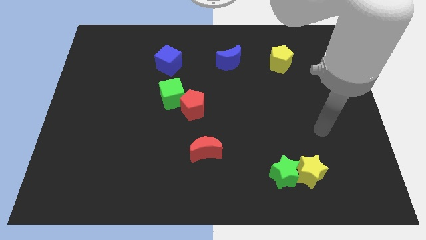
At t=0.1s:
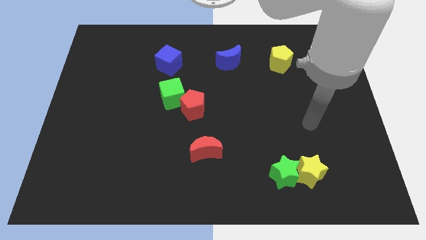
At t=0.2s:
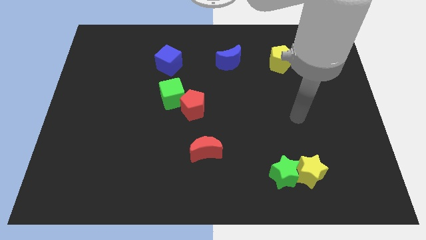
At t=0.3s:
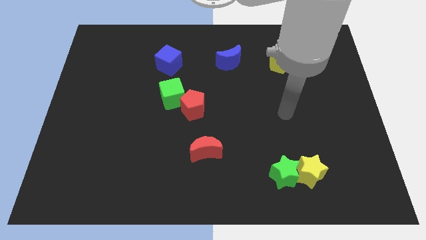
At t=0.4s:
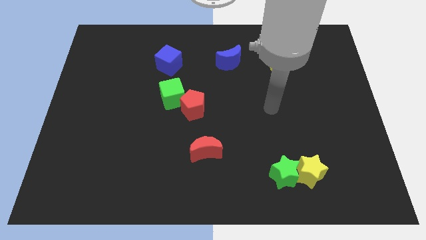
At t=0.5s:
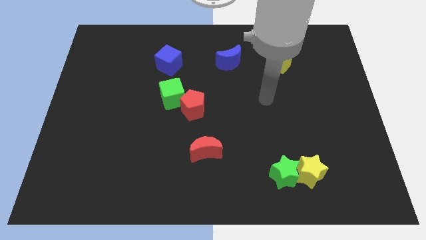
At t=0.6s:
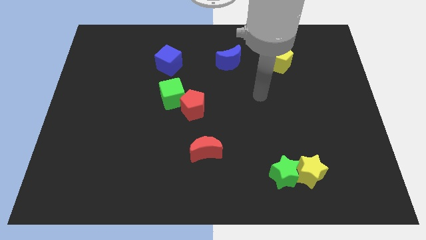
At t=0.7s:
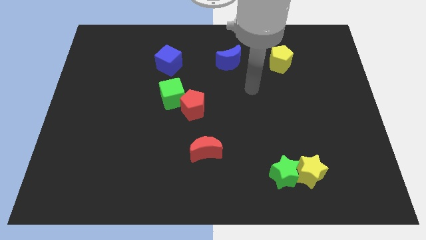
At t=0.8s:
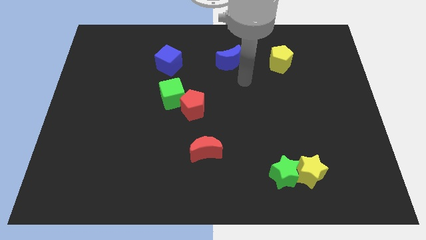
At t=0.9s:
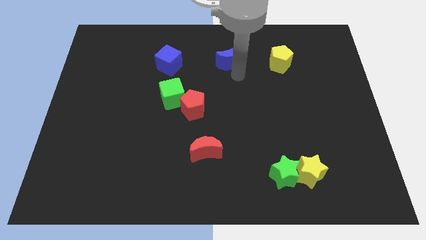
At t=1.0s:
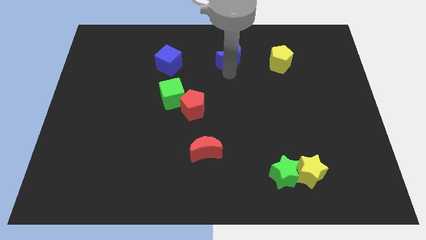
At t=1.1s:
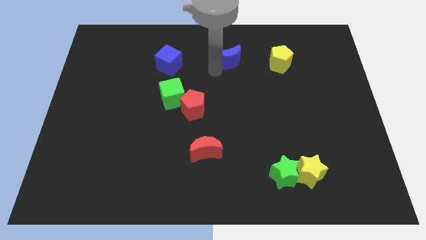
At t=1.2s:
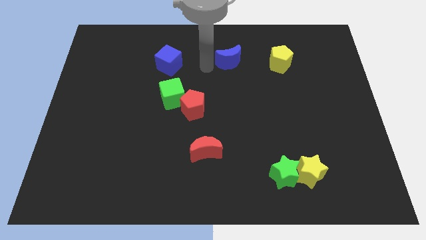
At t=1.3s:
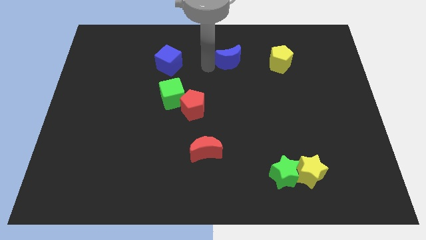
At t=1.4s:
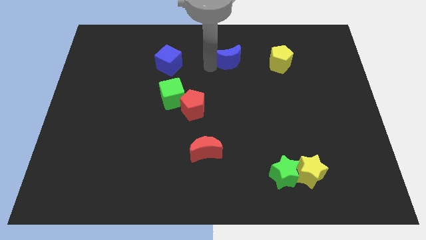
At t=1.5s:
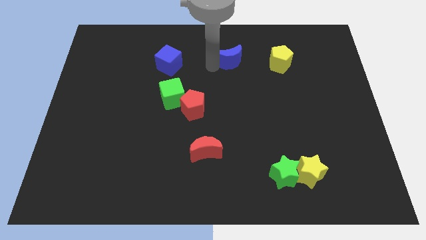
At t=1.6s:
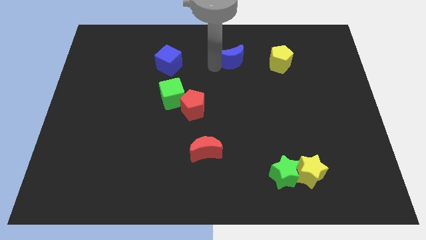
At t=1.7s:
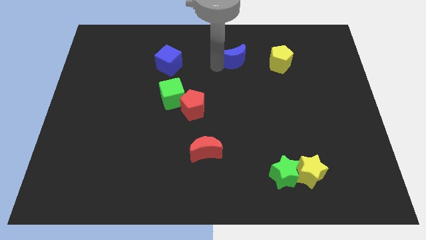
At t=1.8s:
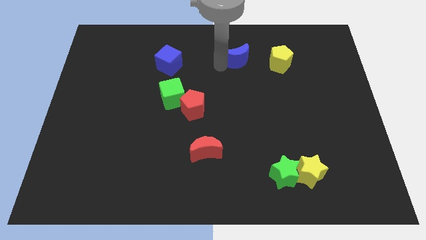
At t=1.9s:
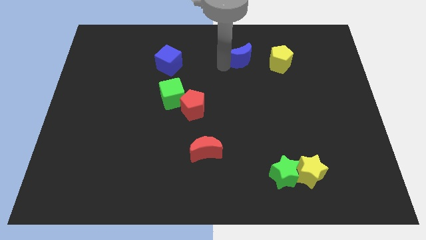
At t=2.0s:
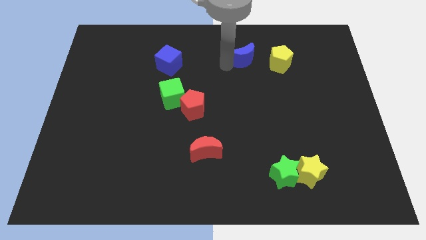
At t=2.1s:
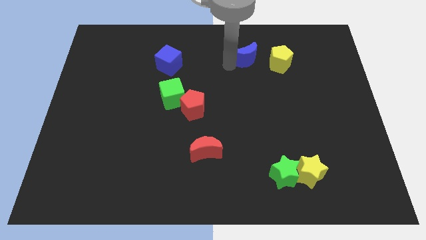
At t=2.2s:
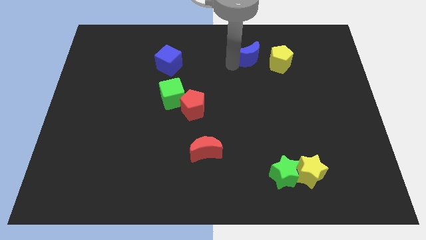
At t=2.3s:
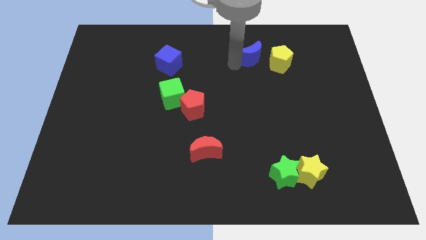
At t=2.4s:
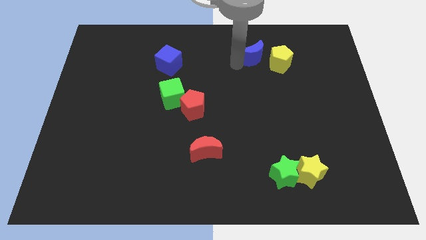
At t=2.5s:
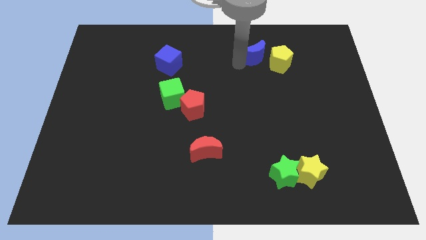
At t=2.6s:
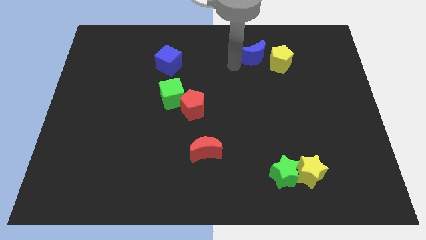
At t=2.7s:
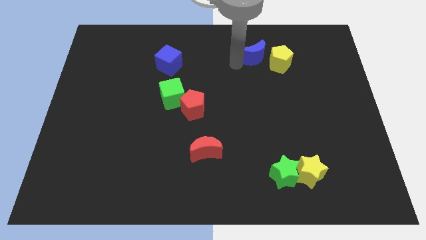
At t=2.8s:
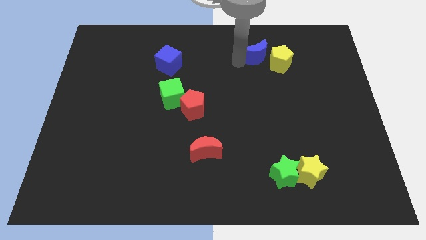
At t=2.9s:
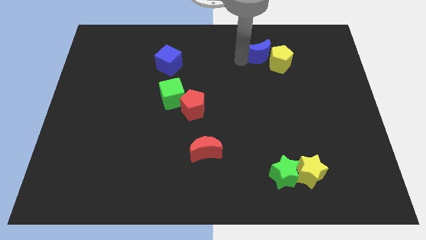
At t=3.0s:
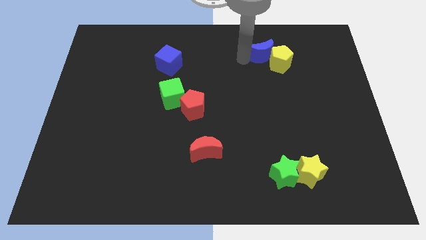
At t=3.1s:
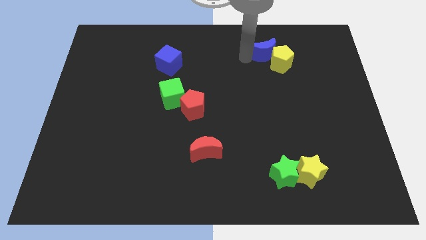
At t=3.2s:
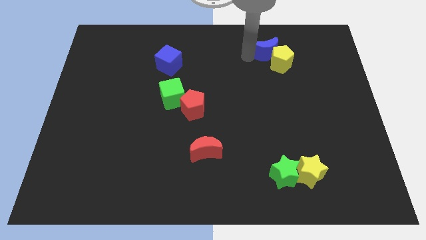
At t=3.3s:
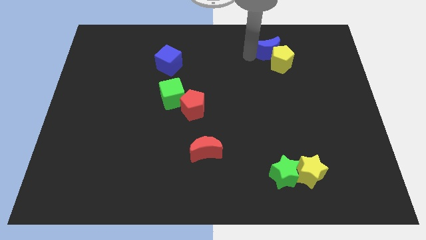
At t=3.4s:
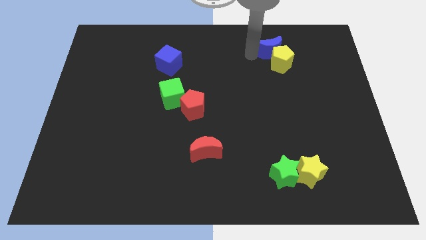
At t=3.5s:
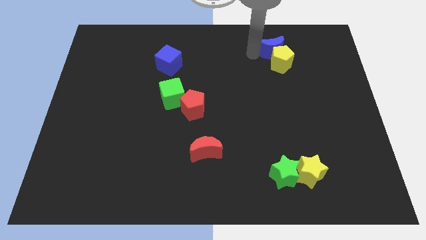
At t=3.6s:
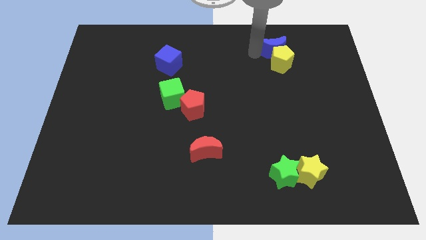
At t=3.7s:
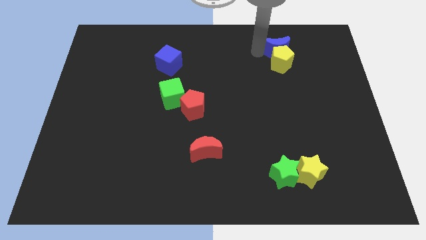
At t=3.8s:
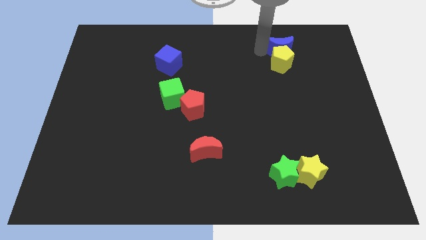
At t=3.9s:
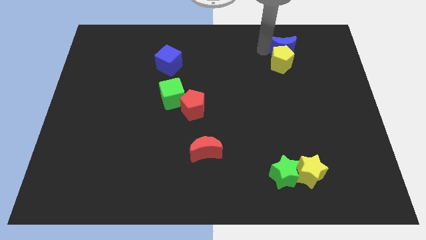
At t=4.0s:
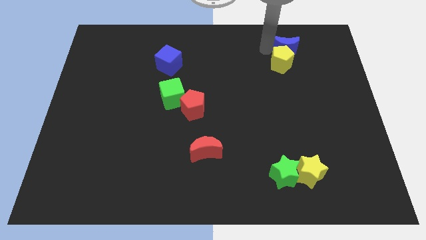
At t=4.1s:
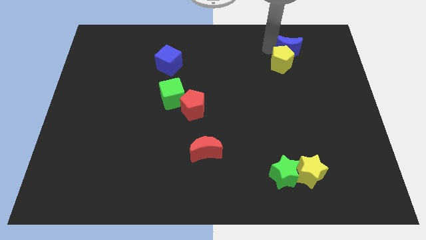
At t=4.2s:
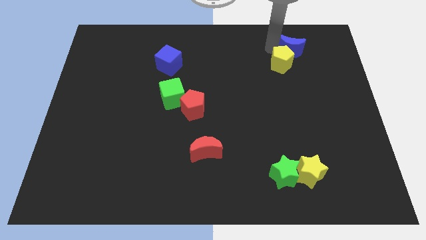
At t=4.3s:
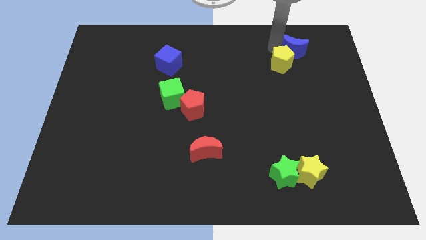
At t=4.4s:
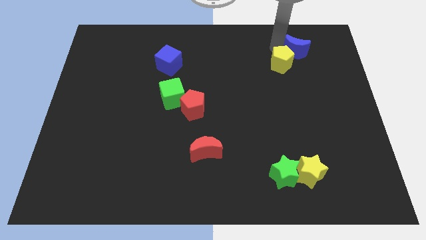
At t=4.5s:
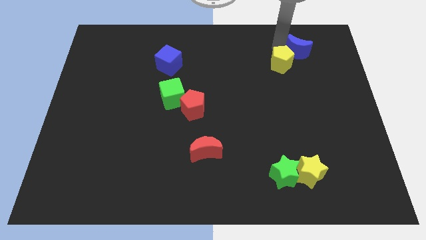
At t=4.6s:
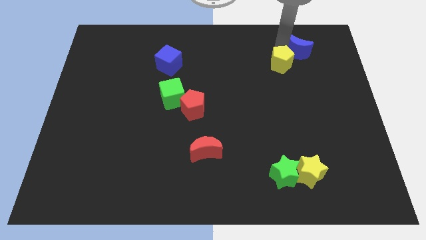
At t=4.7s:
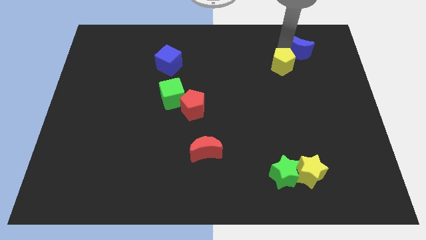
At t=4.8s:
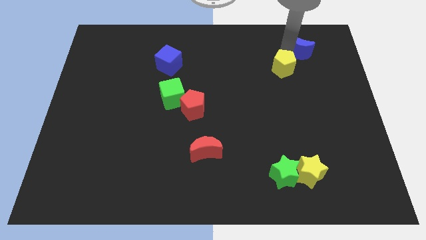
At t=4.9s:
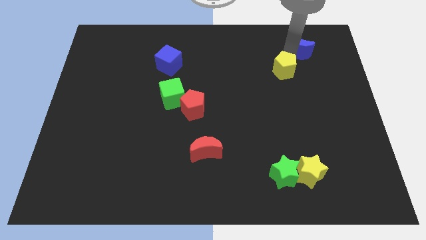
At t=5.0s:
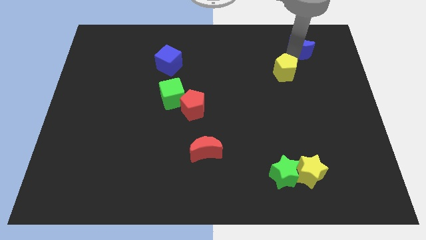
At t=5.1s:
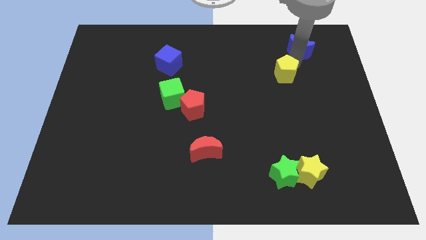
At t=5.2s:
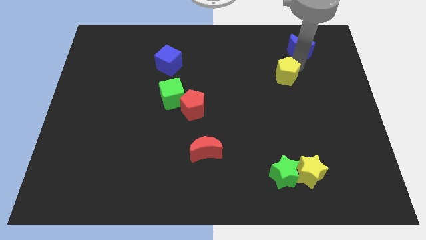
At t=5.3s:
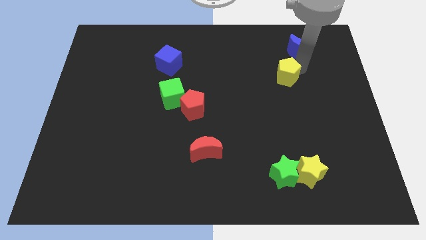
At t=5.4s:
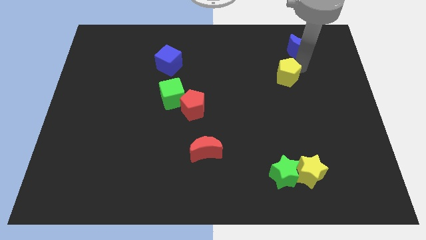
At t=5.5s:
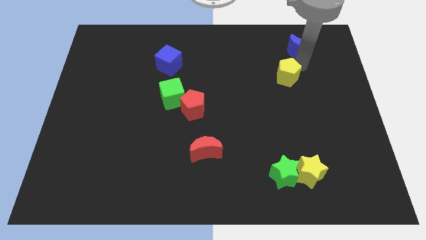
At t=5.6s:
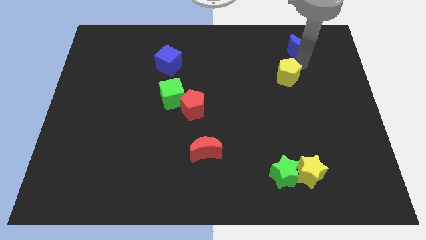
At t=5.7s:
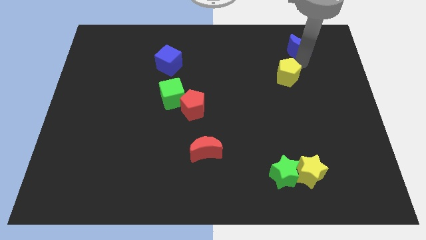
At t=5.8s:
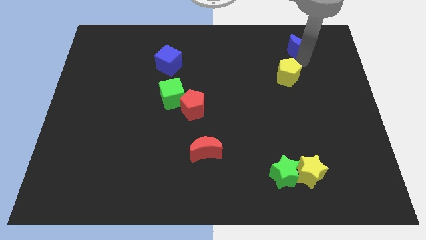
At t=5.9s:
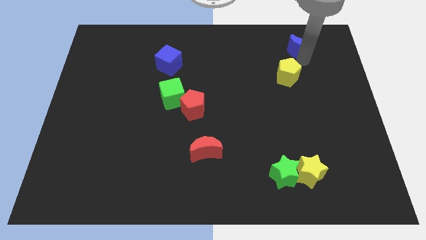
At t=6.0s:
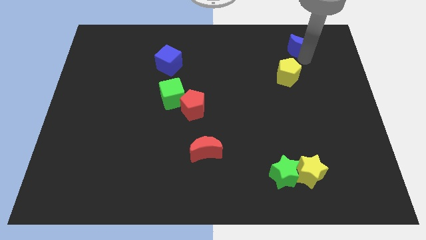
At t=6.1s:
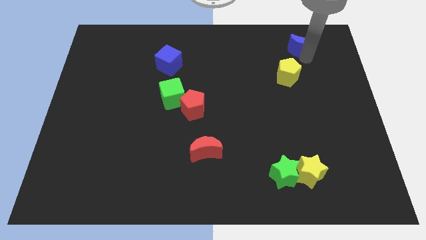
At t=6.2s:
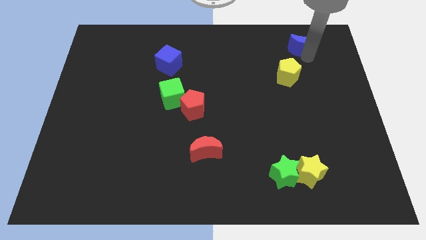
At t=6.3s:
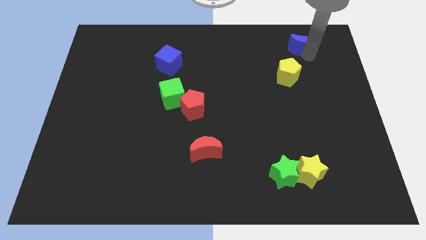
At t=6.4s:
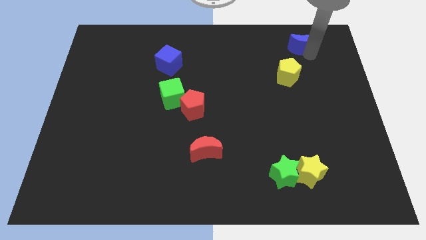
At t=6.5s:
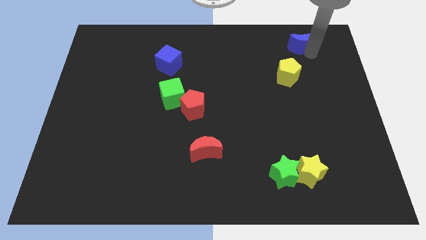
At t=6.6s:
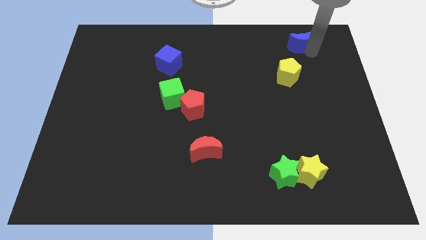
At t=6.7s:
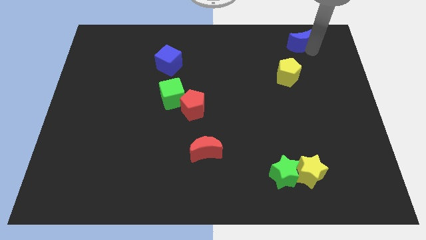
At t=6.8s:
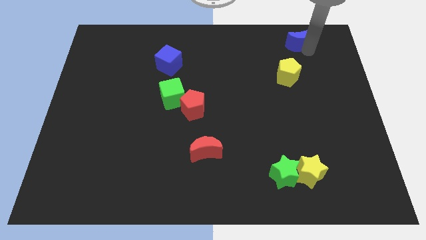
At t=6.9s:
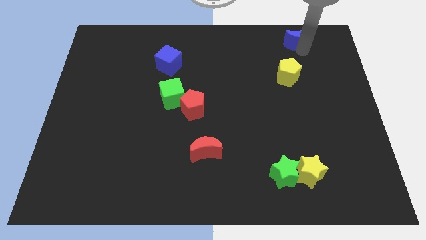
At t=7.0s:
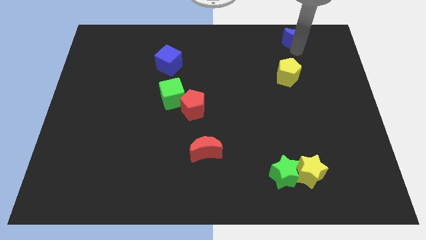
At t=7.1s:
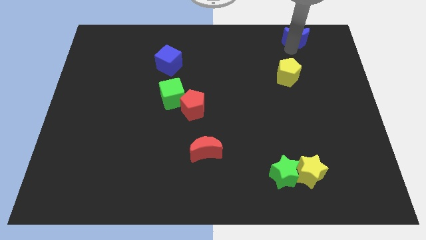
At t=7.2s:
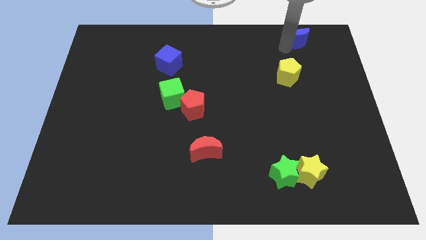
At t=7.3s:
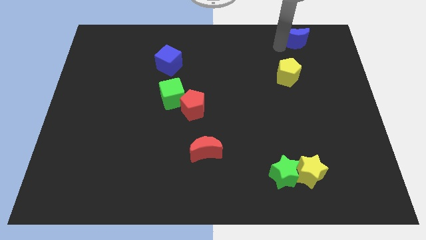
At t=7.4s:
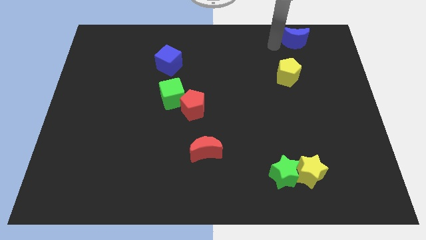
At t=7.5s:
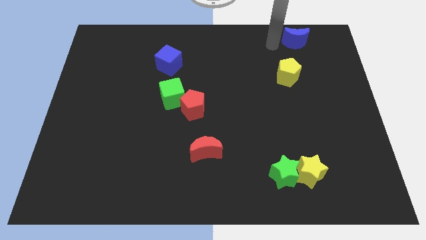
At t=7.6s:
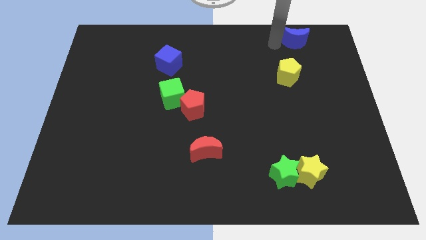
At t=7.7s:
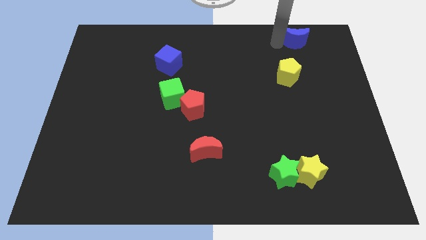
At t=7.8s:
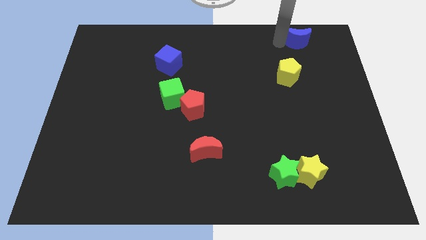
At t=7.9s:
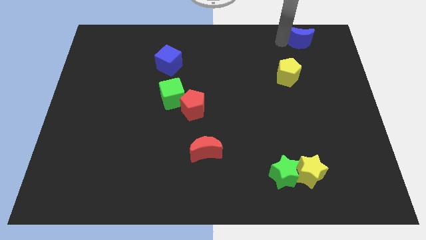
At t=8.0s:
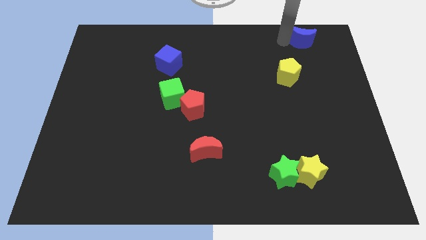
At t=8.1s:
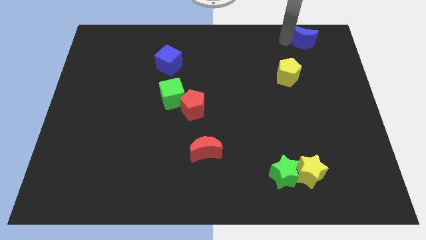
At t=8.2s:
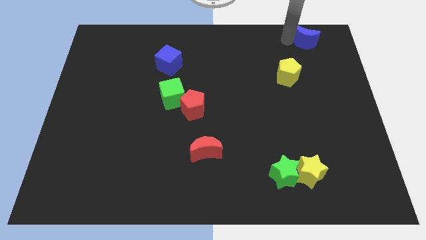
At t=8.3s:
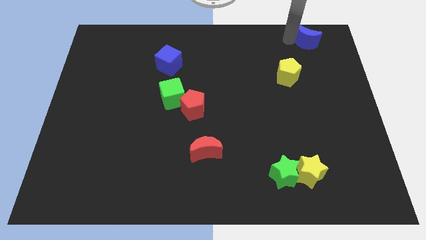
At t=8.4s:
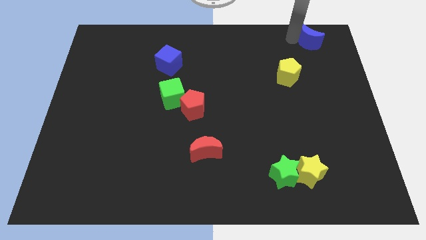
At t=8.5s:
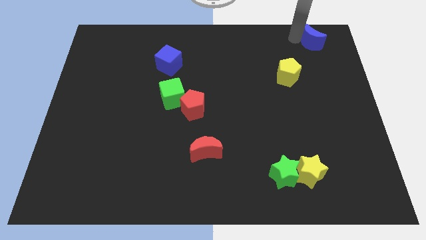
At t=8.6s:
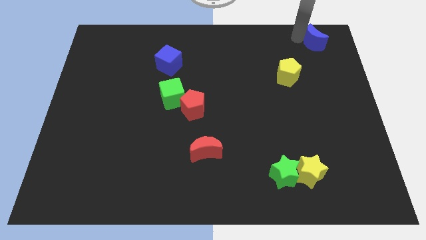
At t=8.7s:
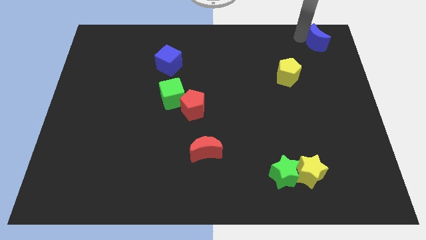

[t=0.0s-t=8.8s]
push the blue moon to the top right
